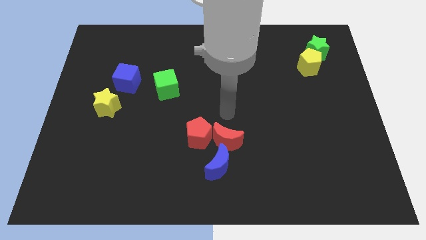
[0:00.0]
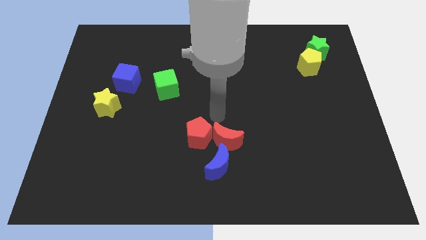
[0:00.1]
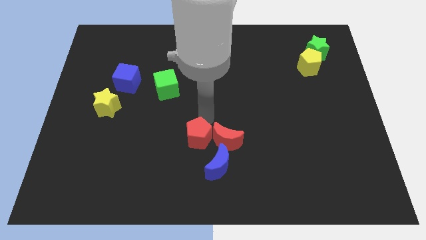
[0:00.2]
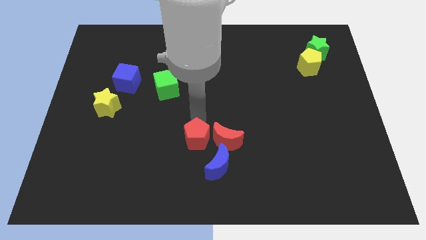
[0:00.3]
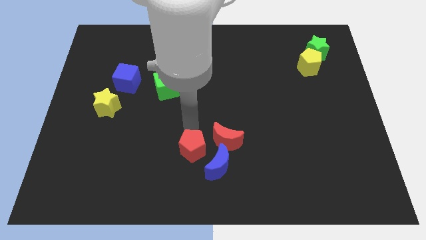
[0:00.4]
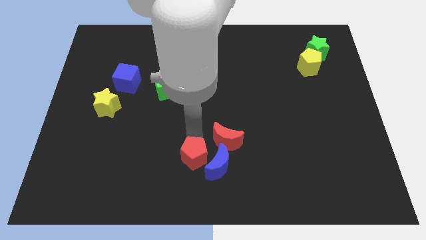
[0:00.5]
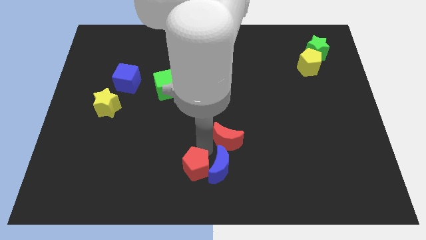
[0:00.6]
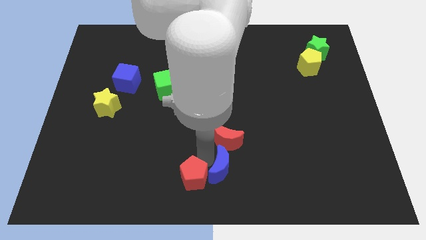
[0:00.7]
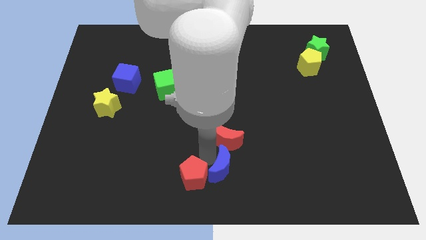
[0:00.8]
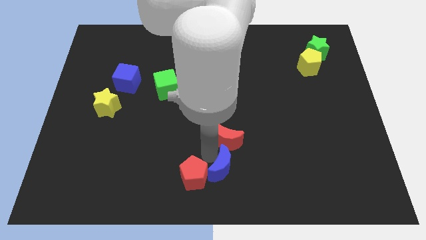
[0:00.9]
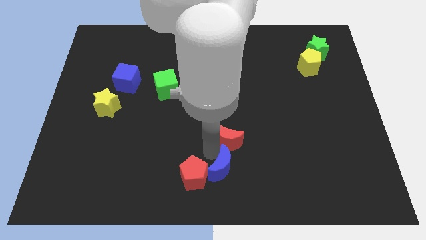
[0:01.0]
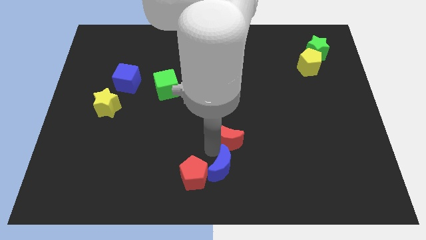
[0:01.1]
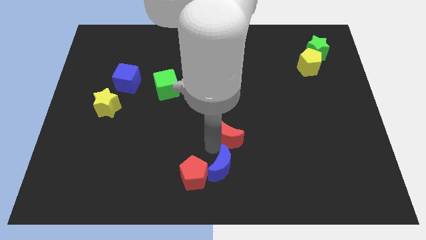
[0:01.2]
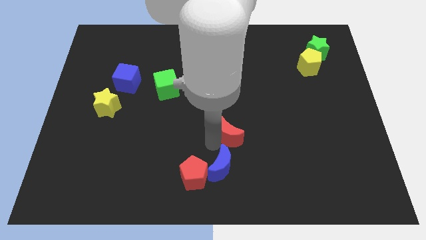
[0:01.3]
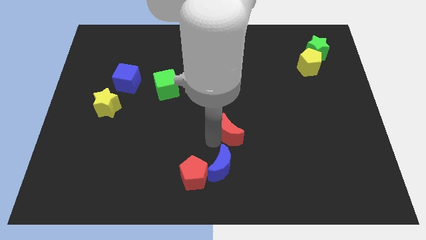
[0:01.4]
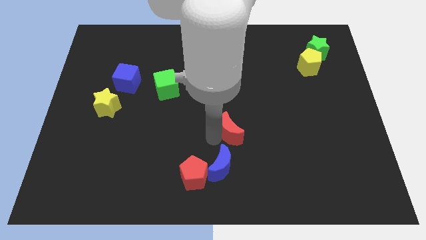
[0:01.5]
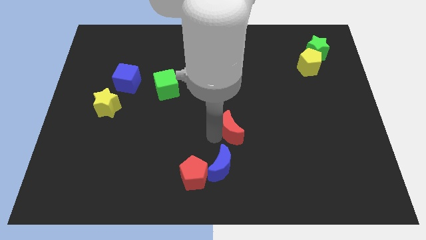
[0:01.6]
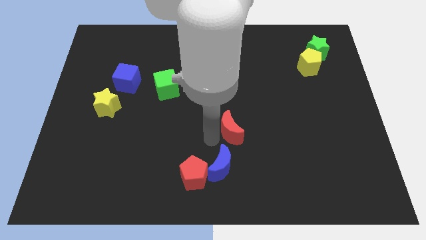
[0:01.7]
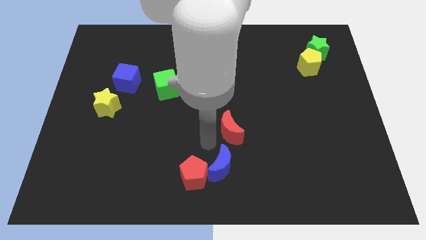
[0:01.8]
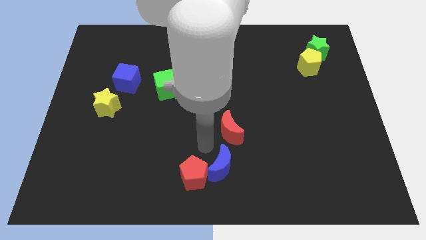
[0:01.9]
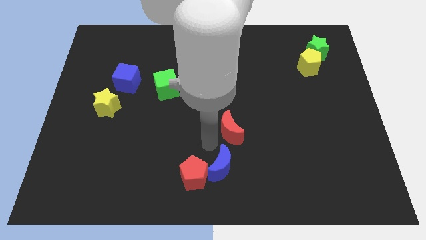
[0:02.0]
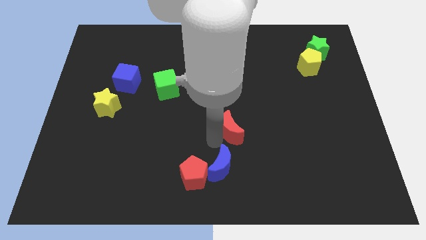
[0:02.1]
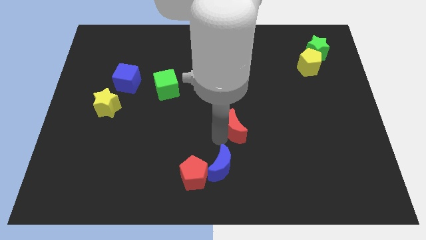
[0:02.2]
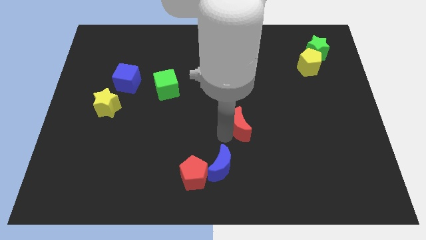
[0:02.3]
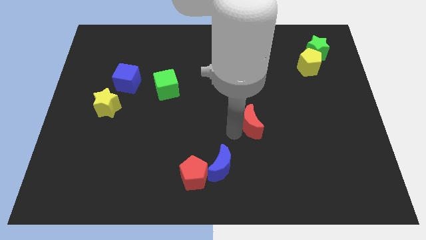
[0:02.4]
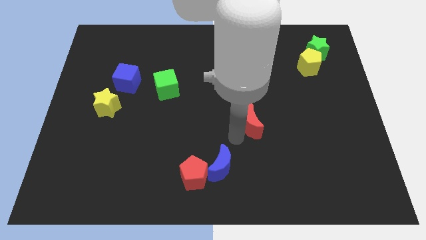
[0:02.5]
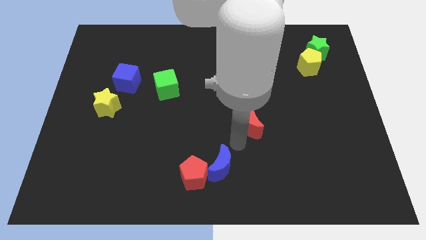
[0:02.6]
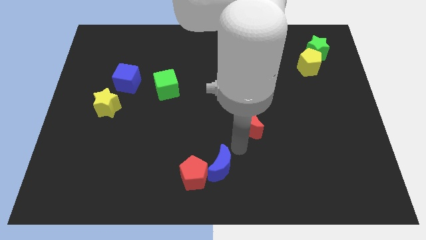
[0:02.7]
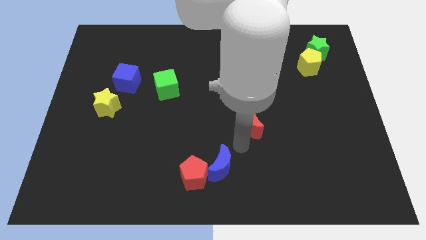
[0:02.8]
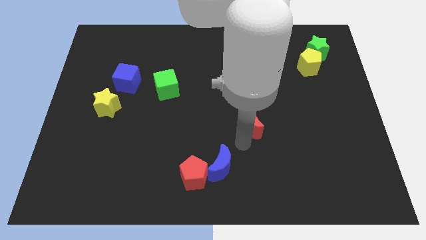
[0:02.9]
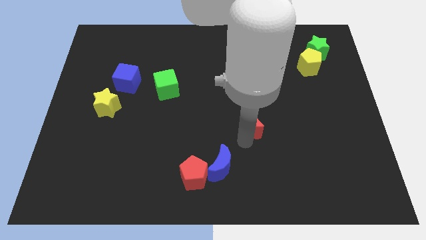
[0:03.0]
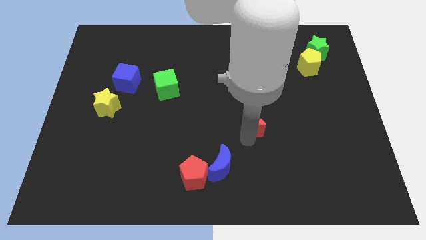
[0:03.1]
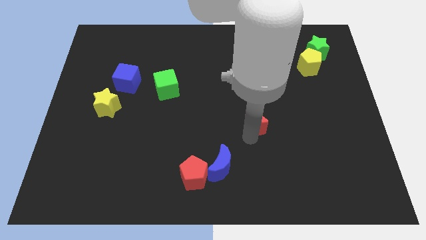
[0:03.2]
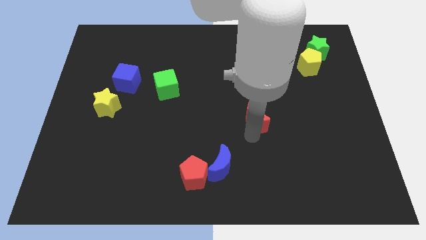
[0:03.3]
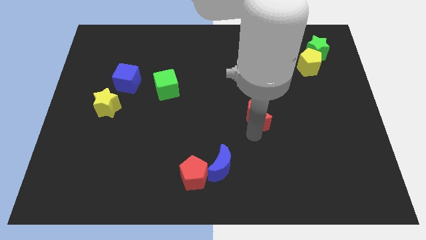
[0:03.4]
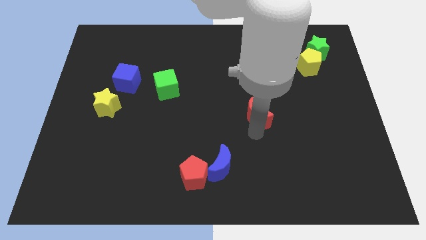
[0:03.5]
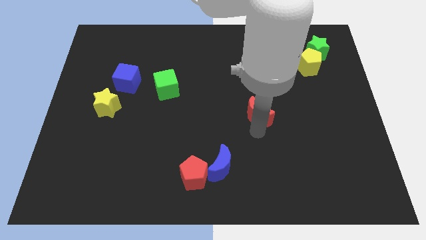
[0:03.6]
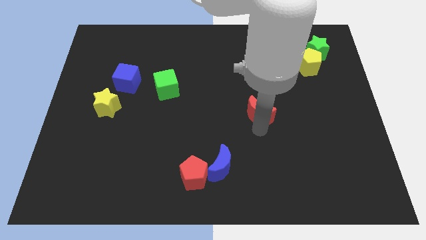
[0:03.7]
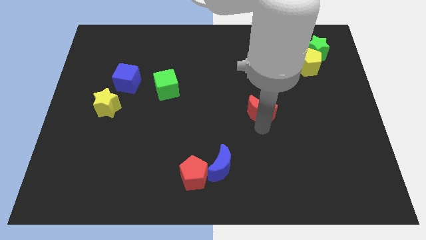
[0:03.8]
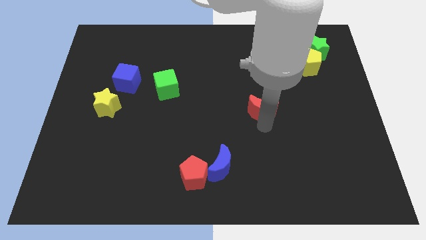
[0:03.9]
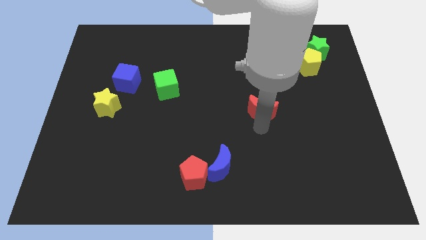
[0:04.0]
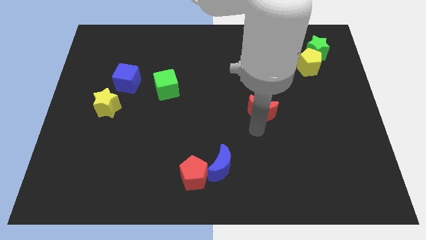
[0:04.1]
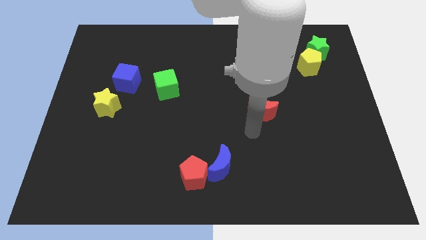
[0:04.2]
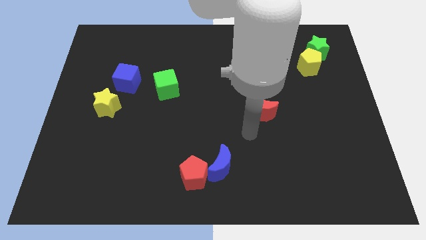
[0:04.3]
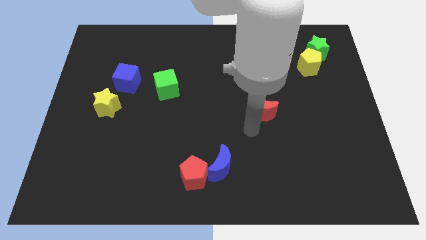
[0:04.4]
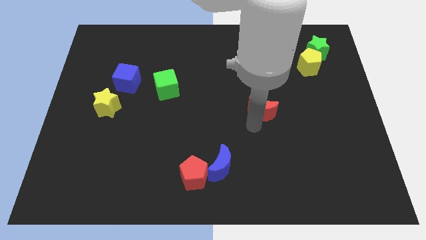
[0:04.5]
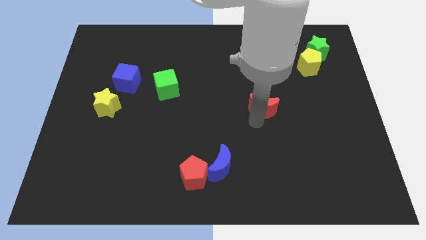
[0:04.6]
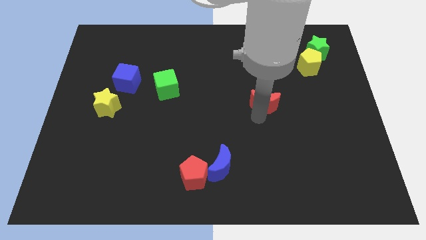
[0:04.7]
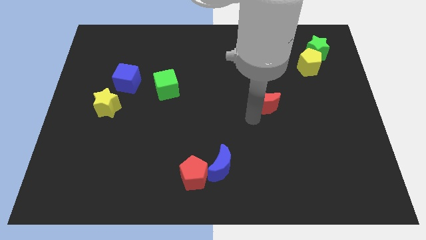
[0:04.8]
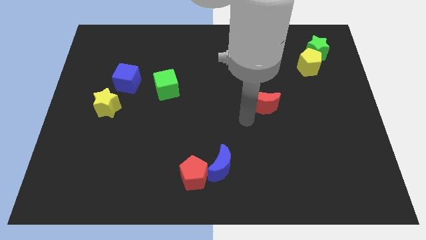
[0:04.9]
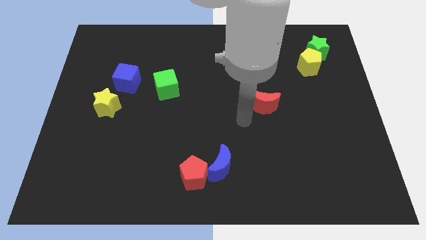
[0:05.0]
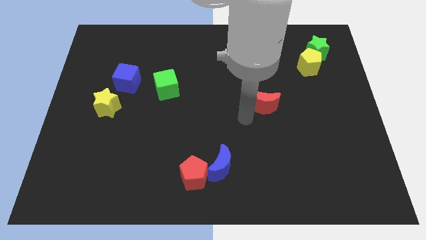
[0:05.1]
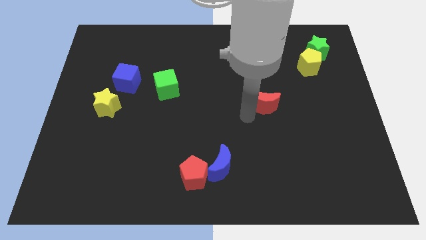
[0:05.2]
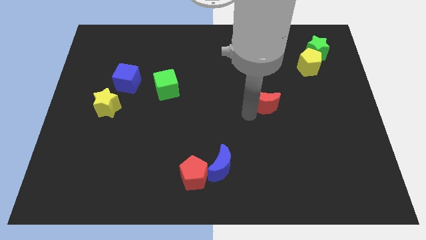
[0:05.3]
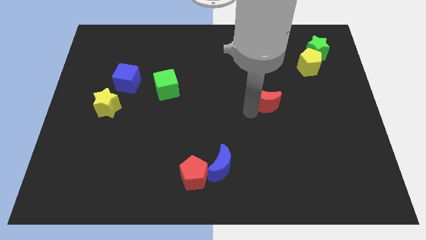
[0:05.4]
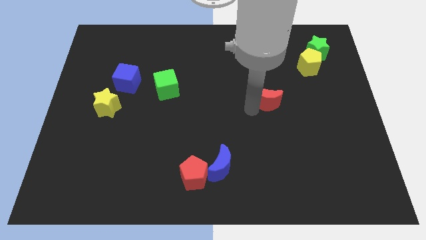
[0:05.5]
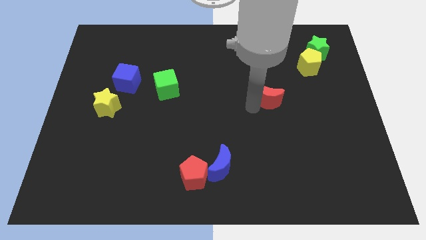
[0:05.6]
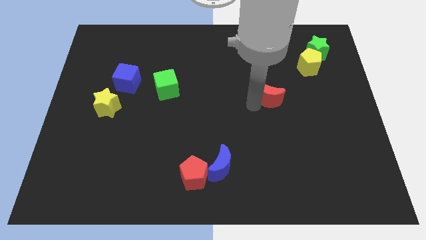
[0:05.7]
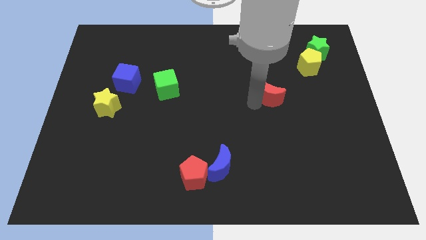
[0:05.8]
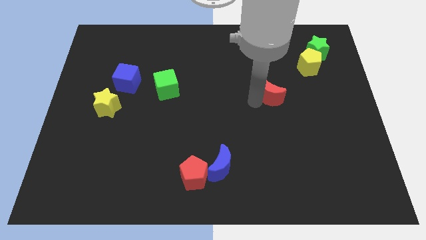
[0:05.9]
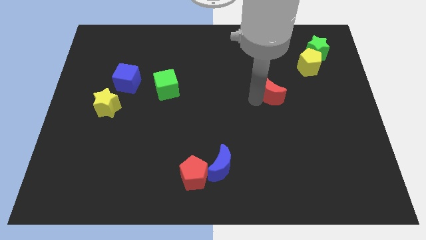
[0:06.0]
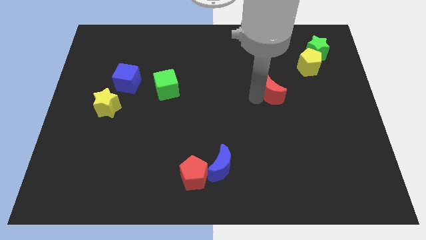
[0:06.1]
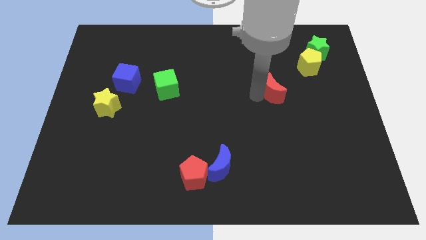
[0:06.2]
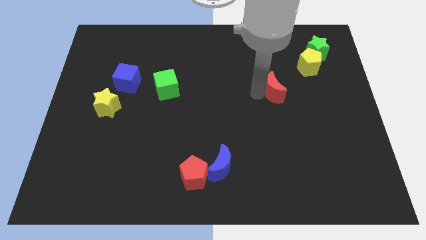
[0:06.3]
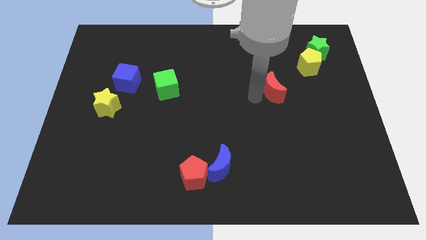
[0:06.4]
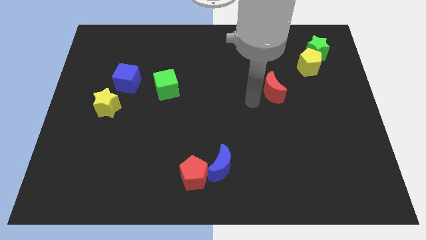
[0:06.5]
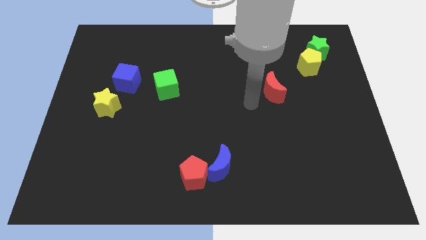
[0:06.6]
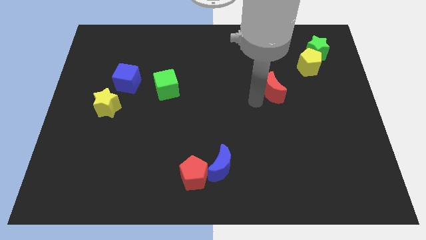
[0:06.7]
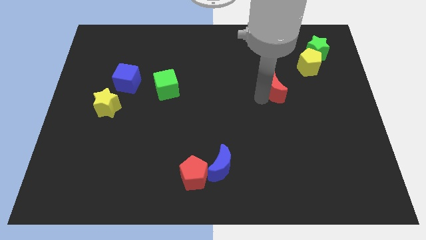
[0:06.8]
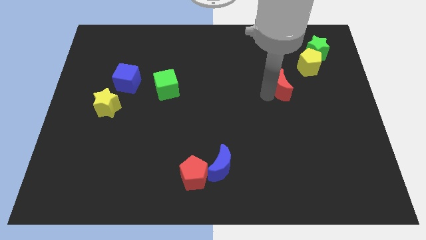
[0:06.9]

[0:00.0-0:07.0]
slide the red moon to the bottom left of the yellow pentagon

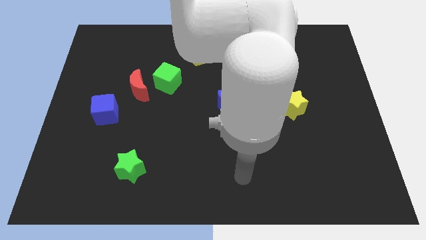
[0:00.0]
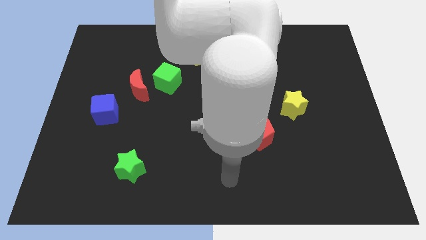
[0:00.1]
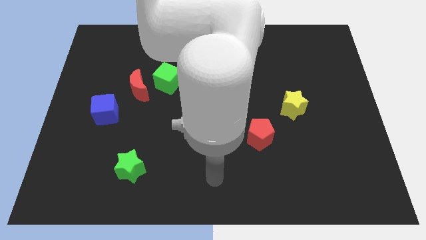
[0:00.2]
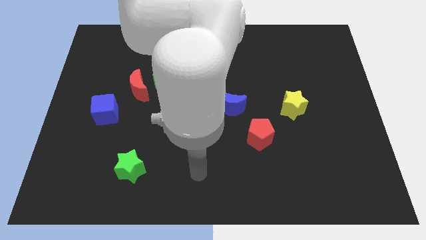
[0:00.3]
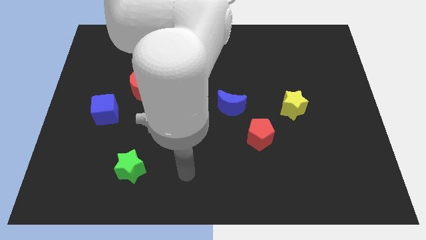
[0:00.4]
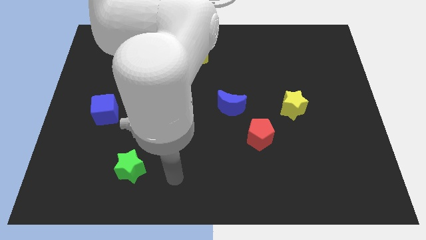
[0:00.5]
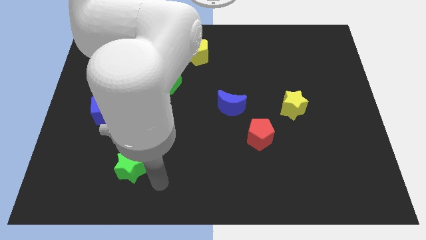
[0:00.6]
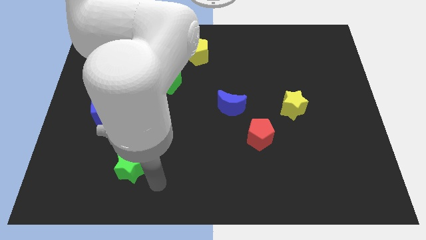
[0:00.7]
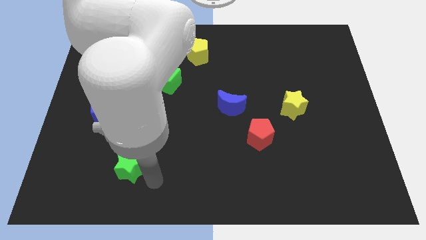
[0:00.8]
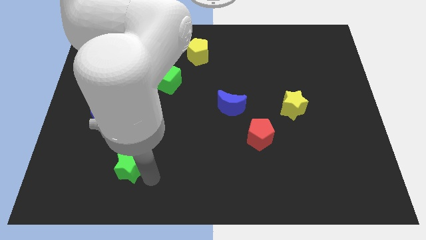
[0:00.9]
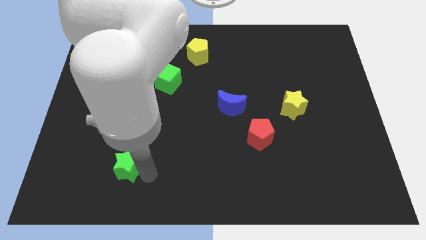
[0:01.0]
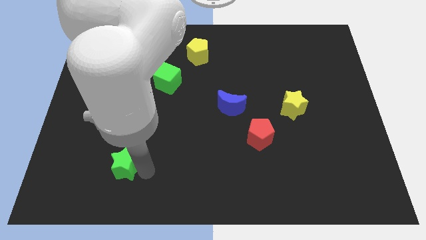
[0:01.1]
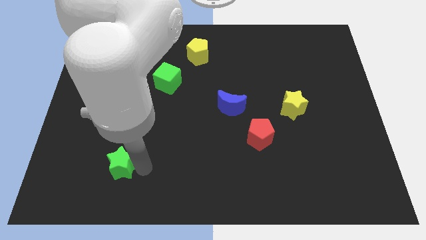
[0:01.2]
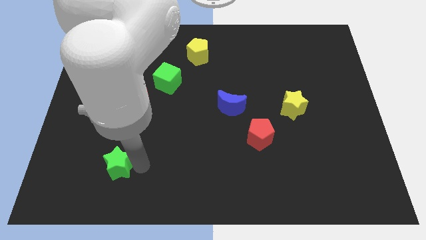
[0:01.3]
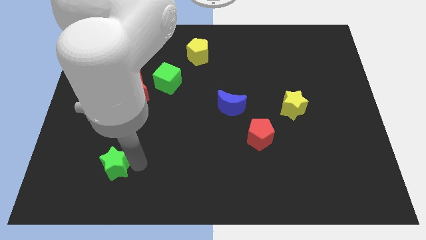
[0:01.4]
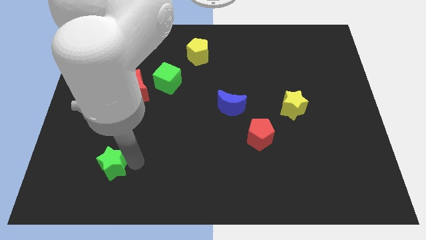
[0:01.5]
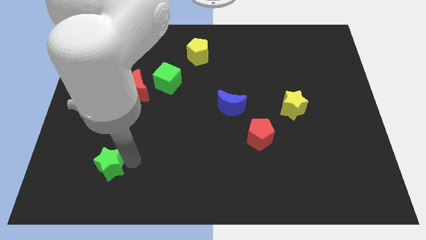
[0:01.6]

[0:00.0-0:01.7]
move the green star to the bottom of the blue cube
